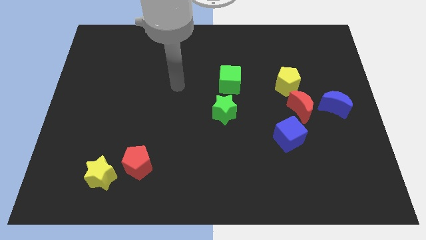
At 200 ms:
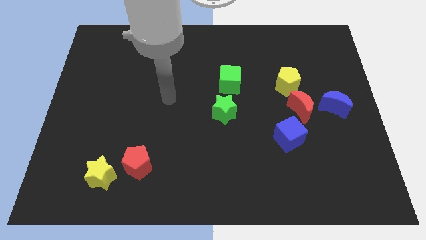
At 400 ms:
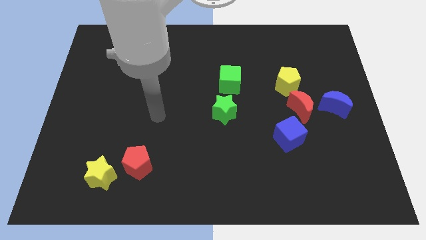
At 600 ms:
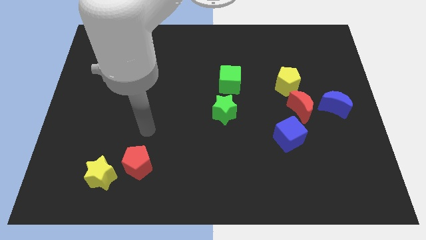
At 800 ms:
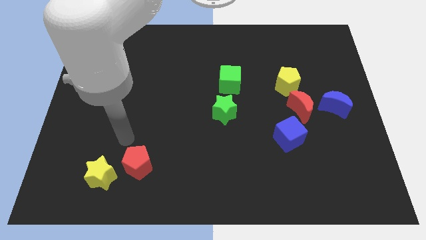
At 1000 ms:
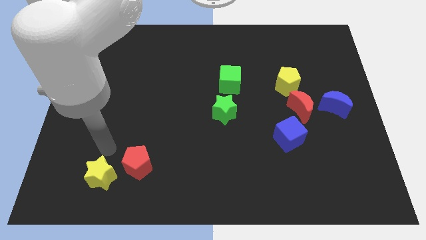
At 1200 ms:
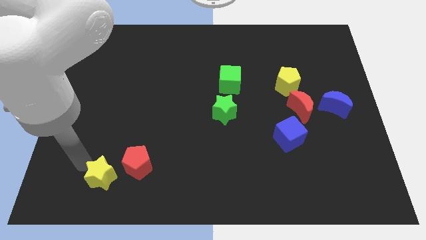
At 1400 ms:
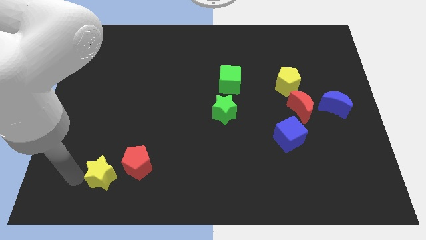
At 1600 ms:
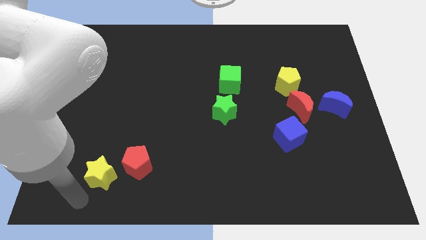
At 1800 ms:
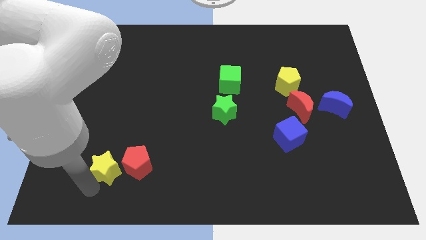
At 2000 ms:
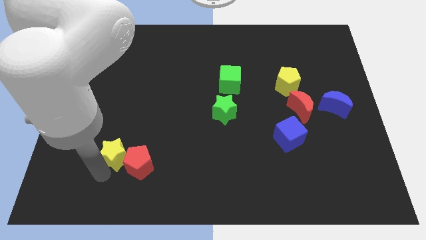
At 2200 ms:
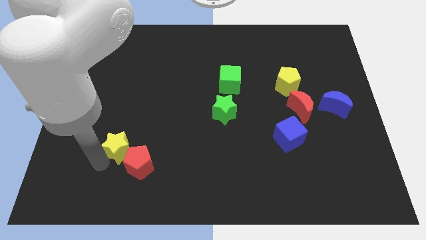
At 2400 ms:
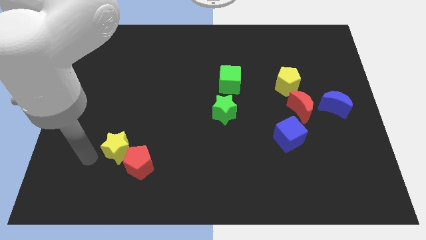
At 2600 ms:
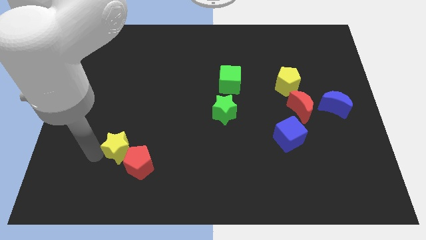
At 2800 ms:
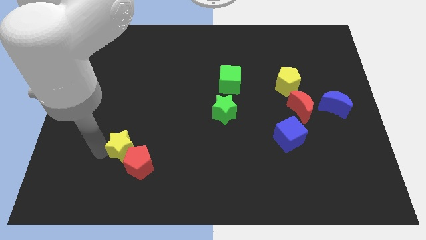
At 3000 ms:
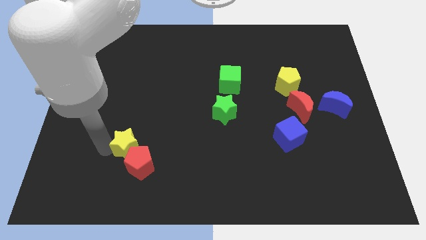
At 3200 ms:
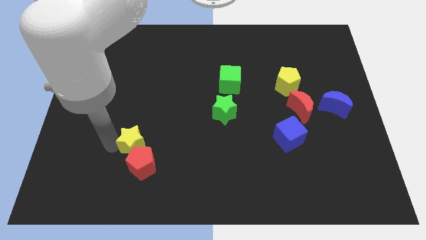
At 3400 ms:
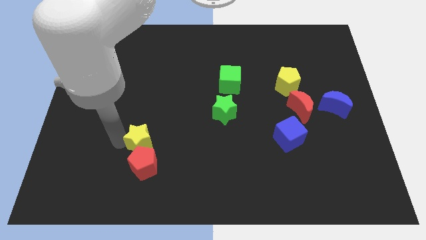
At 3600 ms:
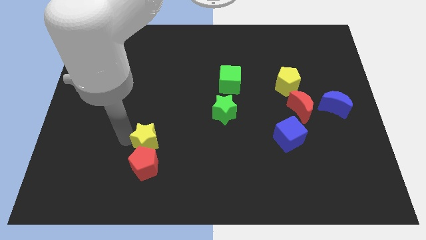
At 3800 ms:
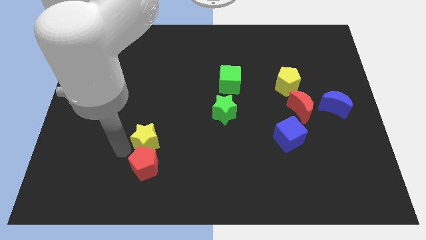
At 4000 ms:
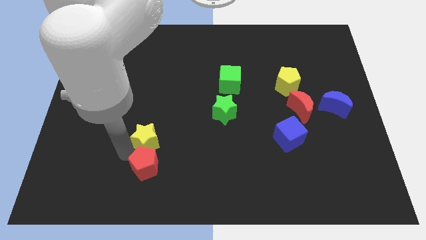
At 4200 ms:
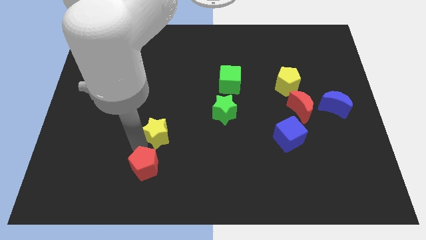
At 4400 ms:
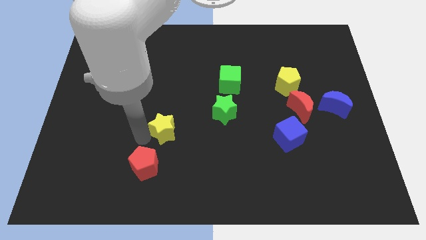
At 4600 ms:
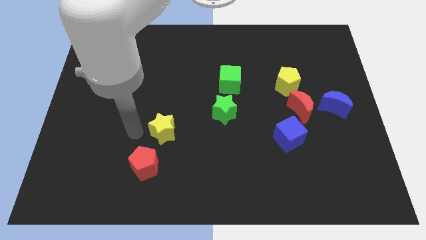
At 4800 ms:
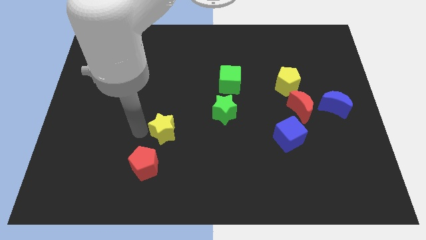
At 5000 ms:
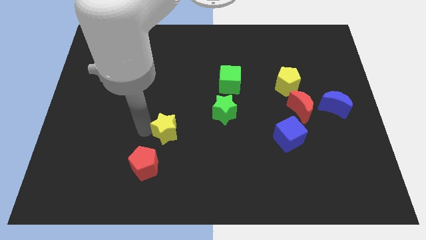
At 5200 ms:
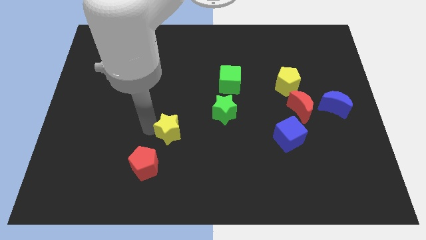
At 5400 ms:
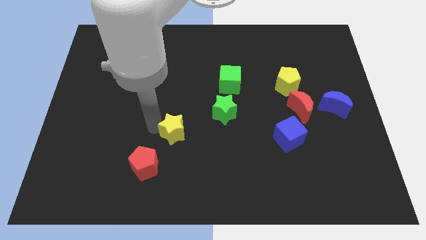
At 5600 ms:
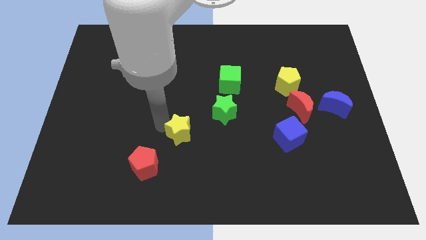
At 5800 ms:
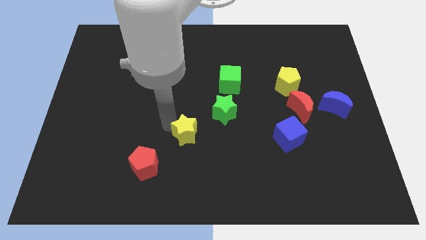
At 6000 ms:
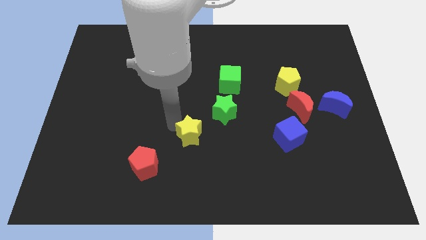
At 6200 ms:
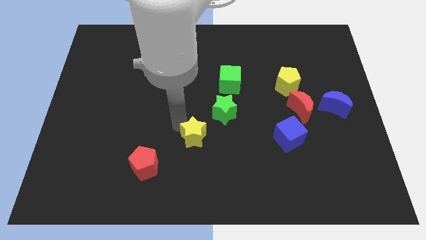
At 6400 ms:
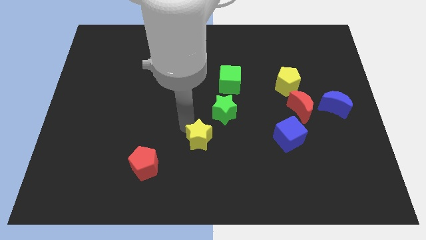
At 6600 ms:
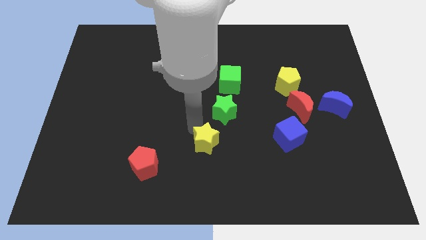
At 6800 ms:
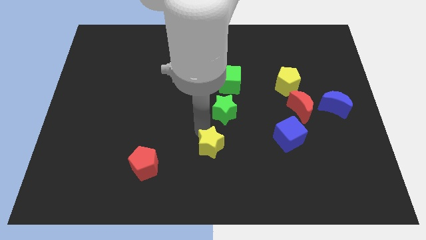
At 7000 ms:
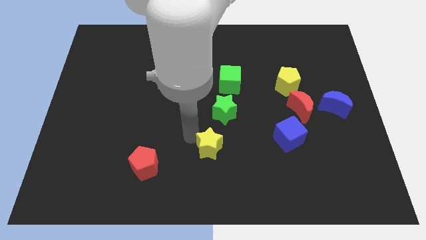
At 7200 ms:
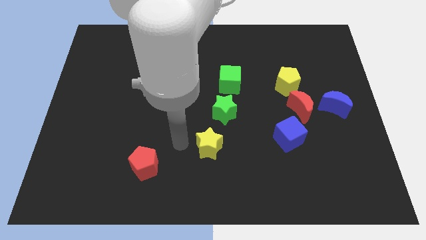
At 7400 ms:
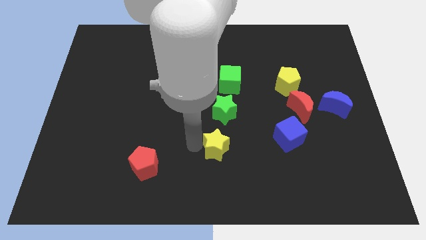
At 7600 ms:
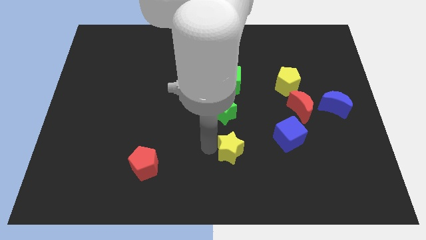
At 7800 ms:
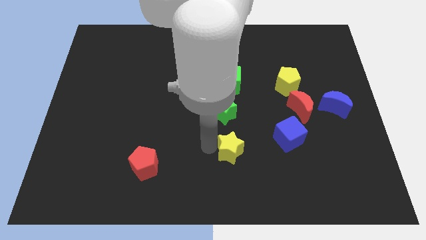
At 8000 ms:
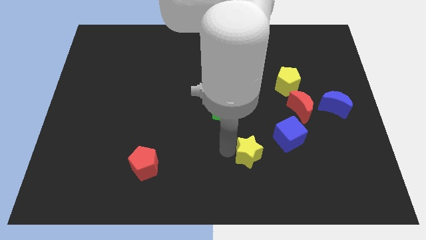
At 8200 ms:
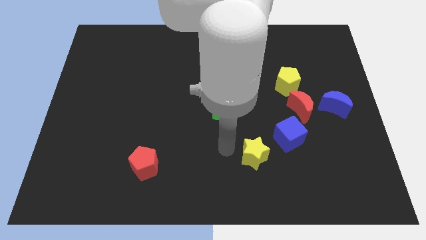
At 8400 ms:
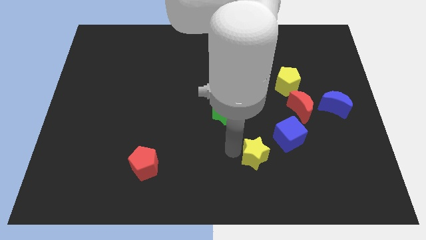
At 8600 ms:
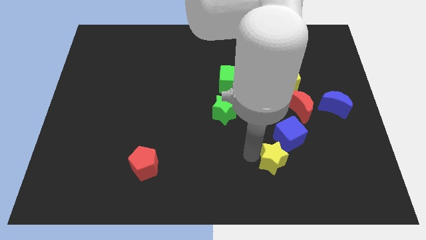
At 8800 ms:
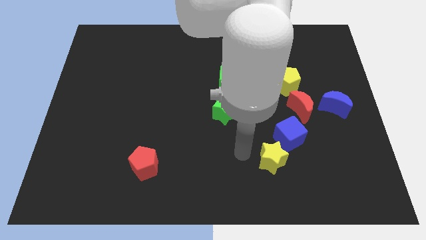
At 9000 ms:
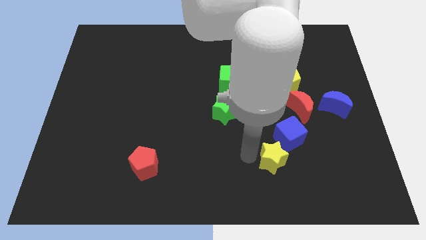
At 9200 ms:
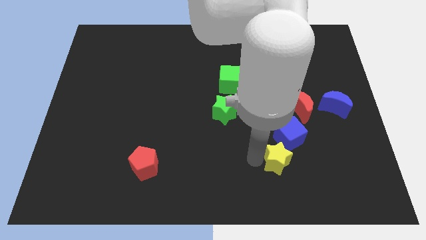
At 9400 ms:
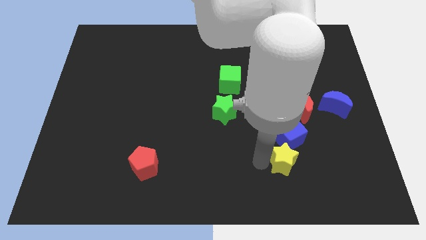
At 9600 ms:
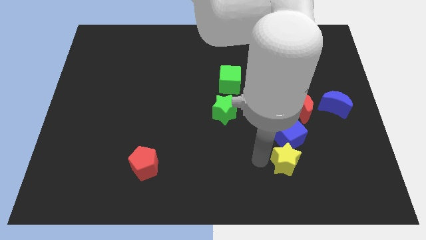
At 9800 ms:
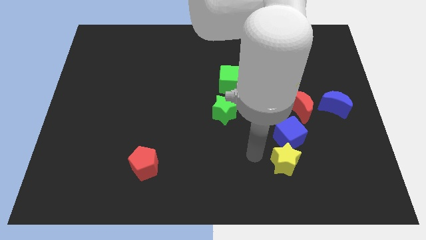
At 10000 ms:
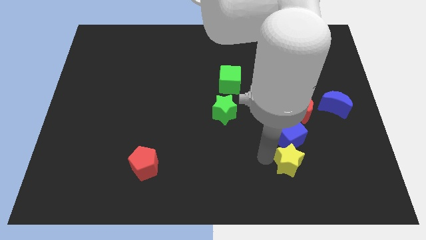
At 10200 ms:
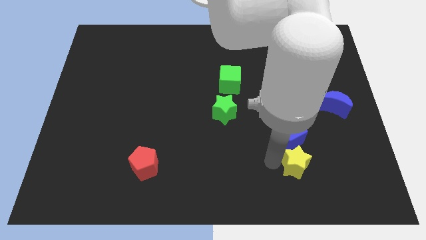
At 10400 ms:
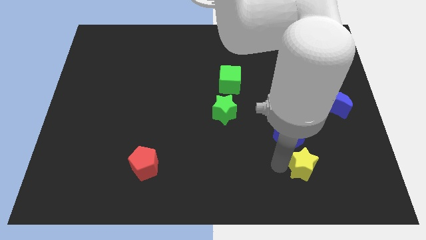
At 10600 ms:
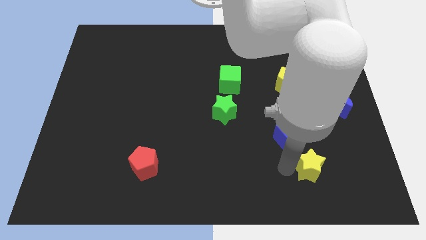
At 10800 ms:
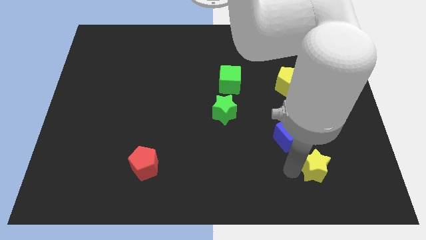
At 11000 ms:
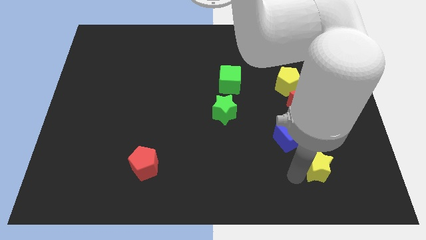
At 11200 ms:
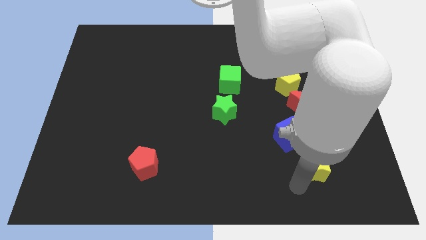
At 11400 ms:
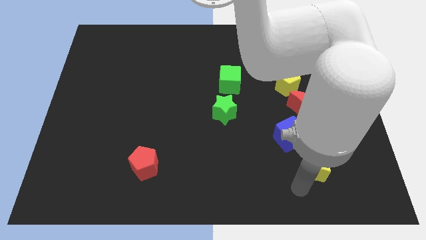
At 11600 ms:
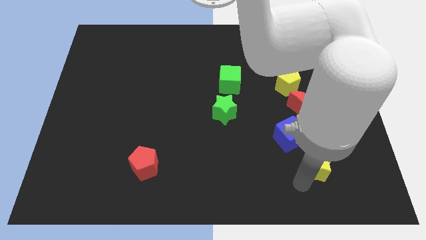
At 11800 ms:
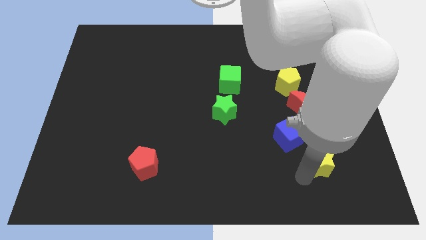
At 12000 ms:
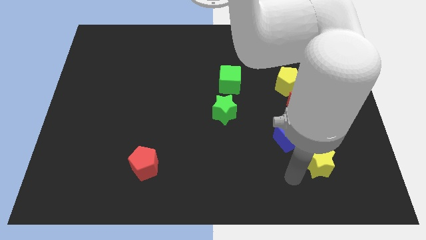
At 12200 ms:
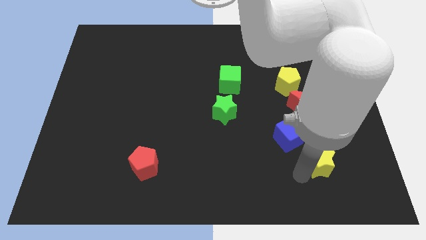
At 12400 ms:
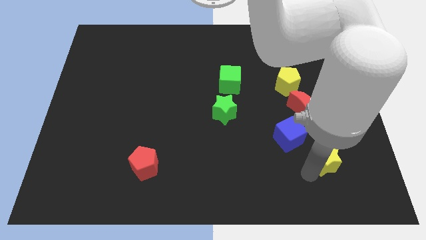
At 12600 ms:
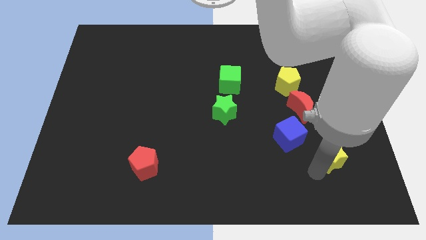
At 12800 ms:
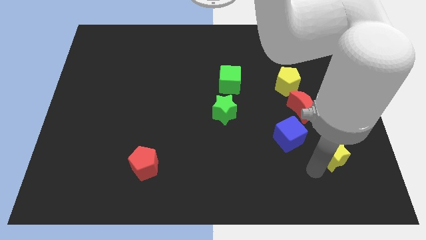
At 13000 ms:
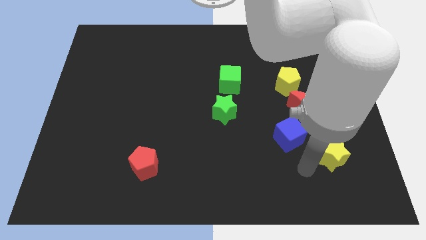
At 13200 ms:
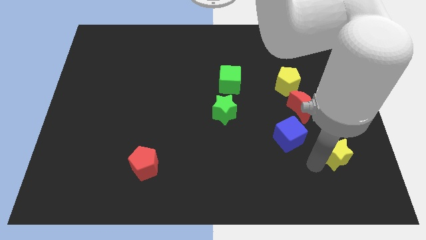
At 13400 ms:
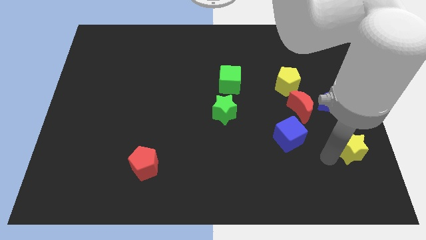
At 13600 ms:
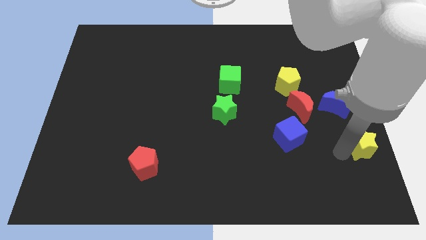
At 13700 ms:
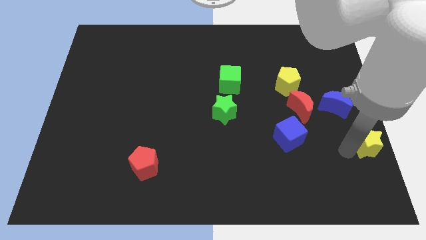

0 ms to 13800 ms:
move the yellow star to the right side
